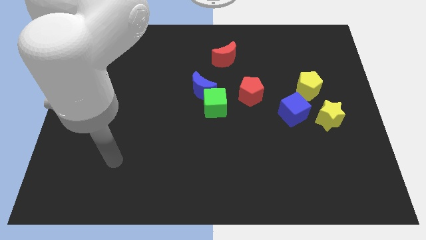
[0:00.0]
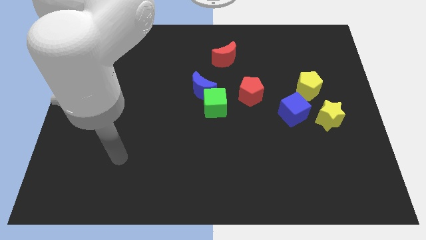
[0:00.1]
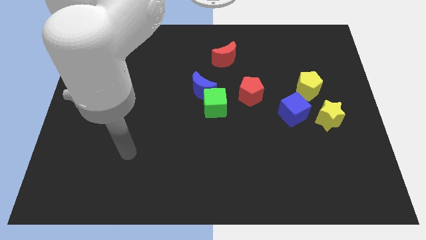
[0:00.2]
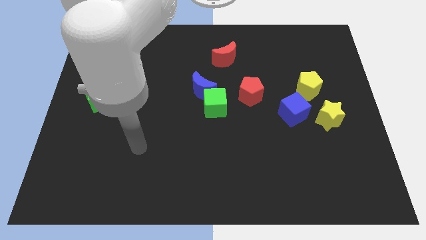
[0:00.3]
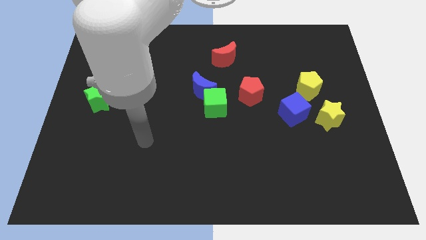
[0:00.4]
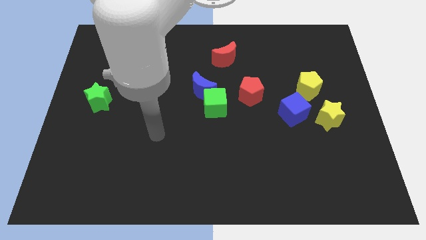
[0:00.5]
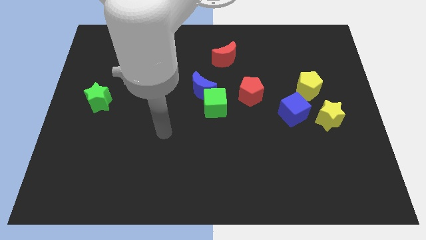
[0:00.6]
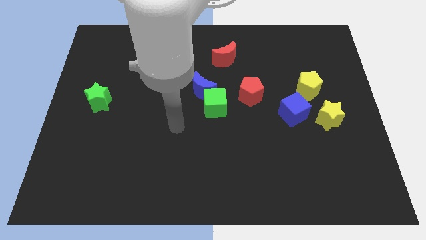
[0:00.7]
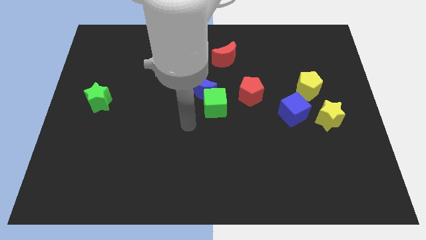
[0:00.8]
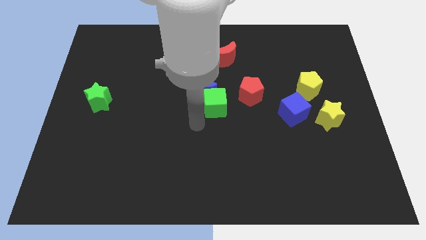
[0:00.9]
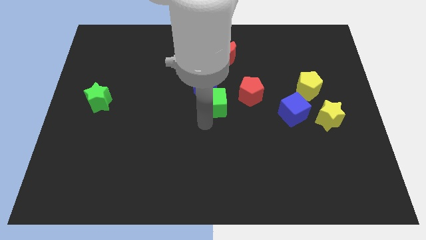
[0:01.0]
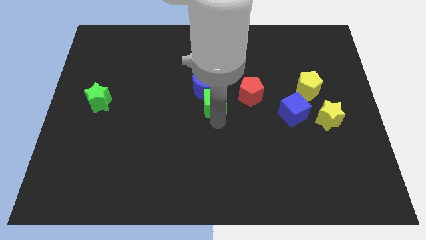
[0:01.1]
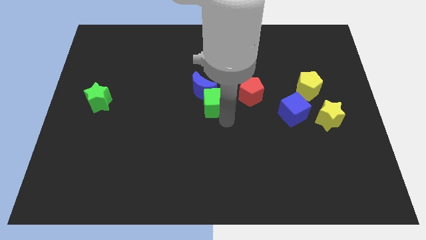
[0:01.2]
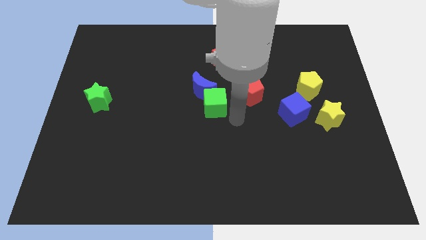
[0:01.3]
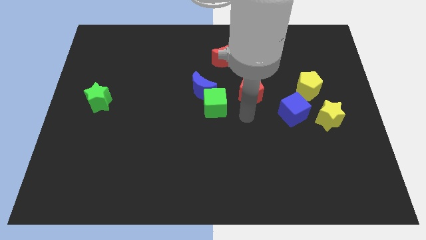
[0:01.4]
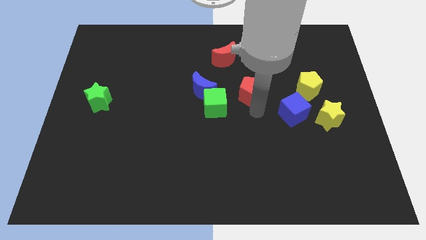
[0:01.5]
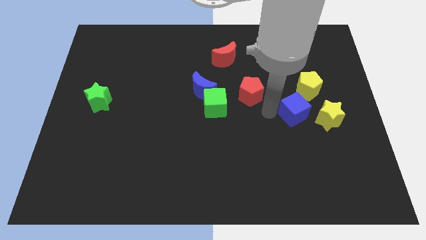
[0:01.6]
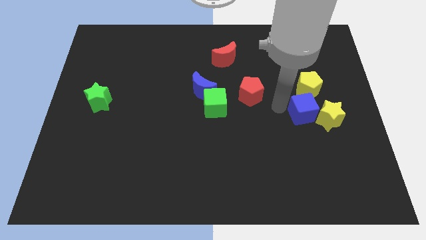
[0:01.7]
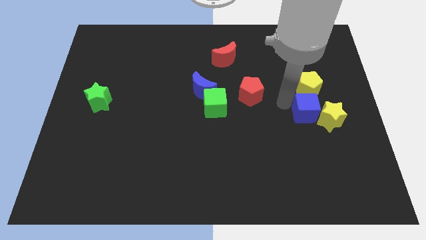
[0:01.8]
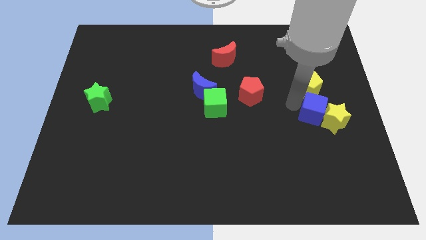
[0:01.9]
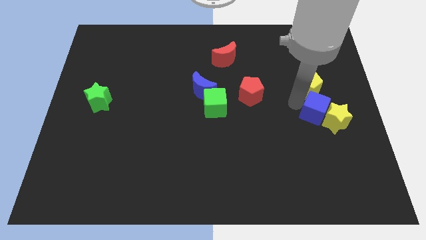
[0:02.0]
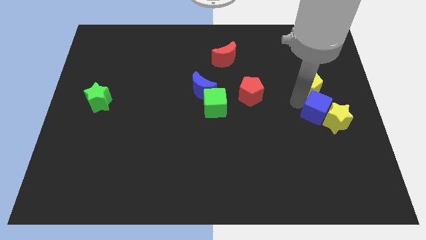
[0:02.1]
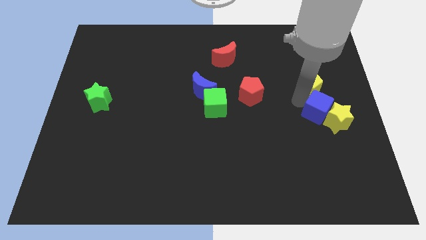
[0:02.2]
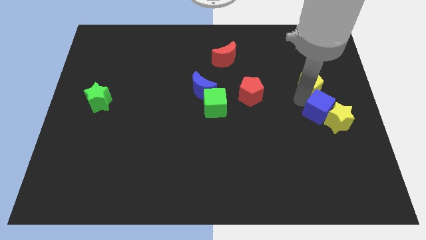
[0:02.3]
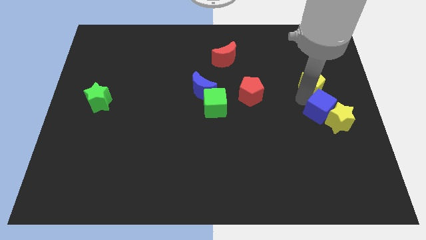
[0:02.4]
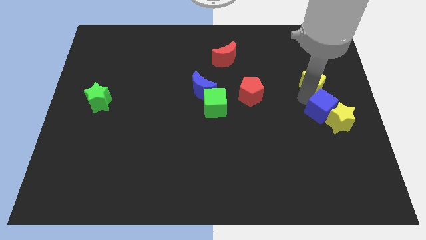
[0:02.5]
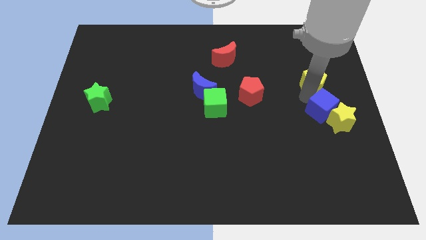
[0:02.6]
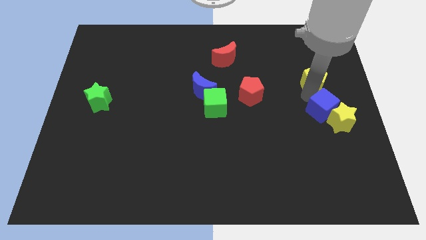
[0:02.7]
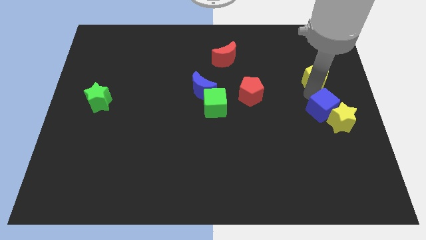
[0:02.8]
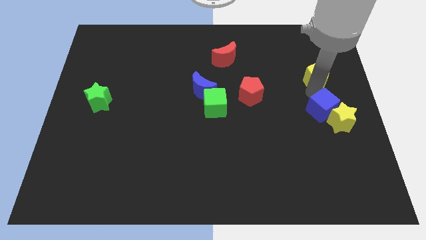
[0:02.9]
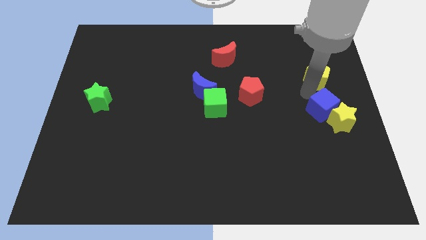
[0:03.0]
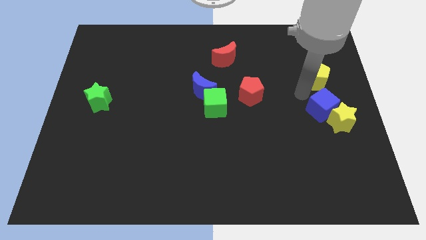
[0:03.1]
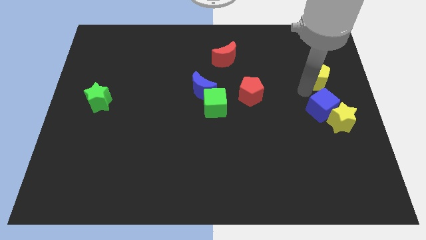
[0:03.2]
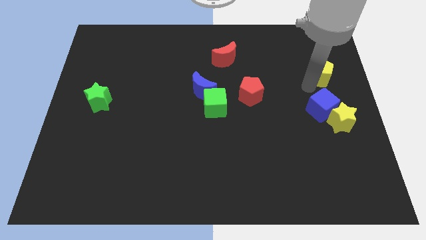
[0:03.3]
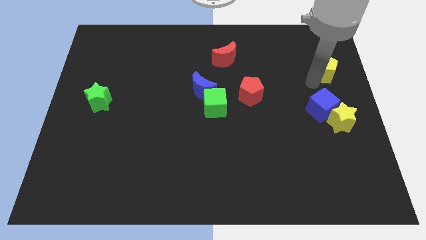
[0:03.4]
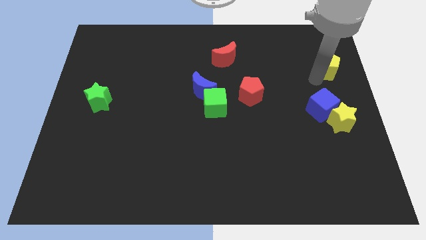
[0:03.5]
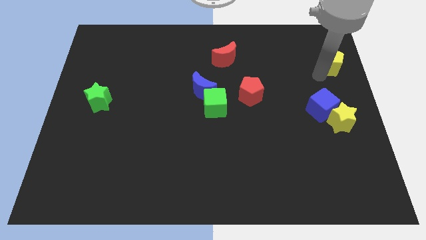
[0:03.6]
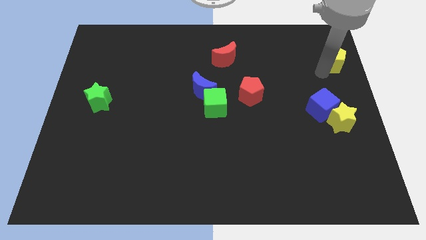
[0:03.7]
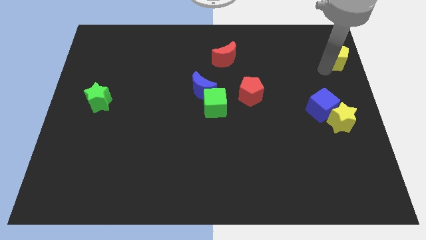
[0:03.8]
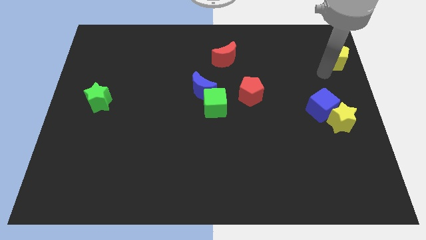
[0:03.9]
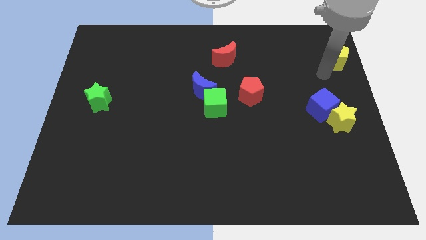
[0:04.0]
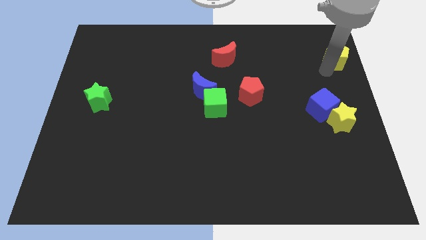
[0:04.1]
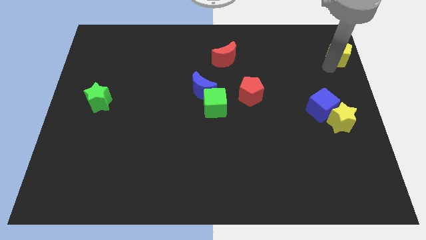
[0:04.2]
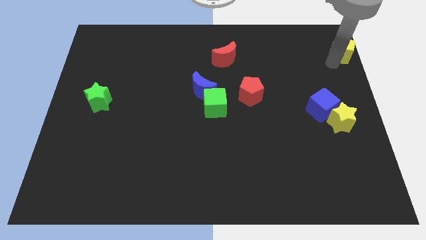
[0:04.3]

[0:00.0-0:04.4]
move the yellow pentagon to the top right corner

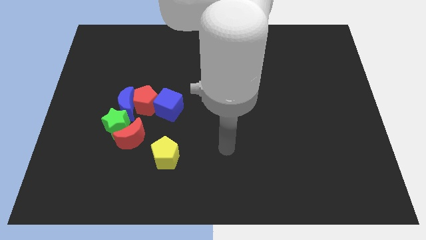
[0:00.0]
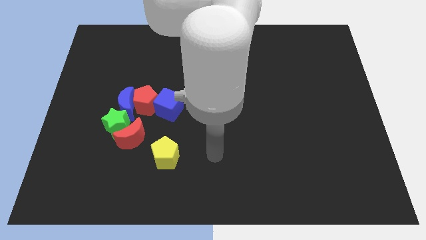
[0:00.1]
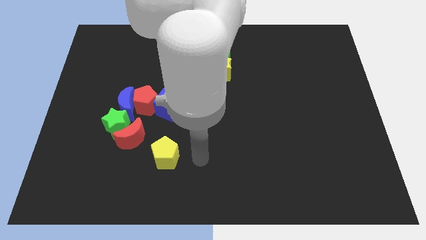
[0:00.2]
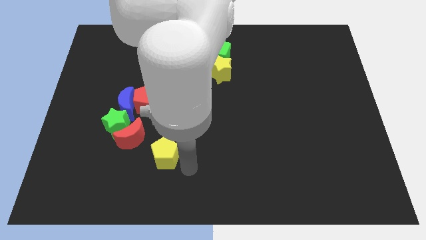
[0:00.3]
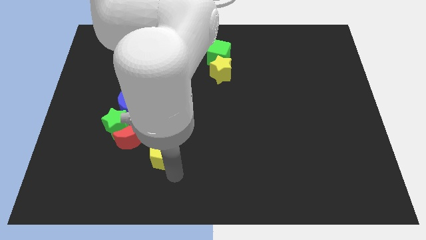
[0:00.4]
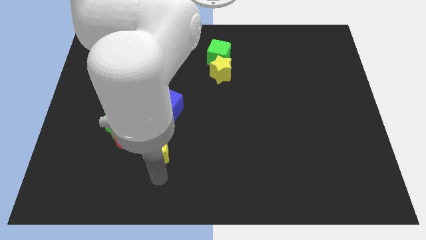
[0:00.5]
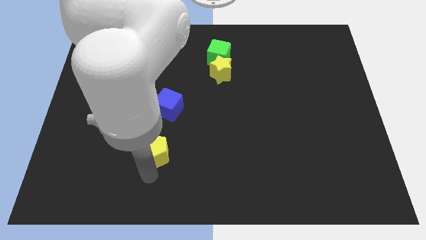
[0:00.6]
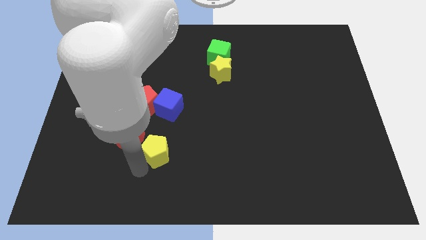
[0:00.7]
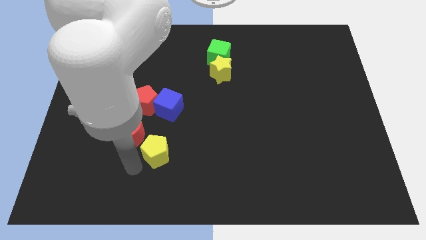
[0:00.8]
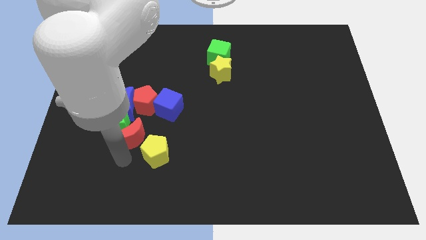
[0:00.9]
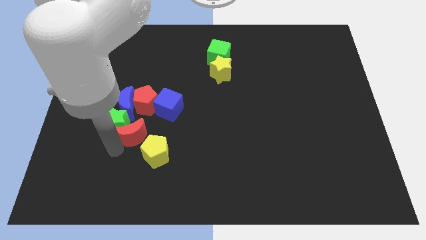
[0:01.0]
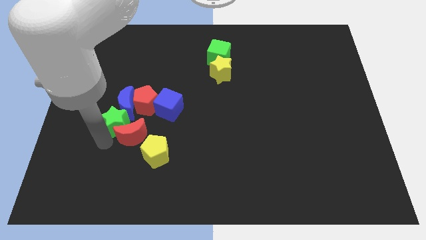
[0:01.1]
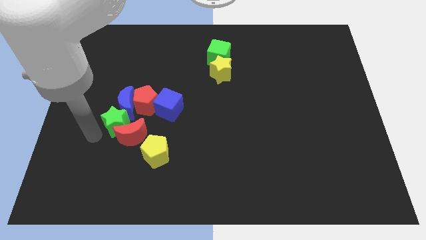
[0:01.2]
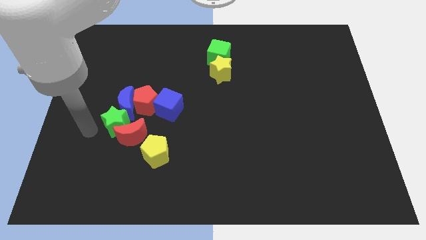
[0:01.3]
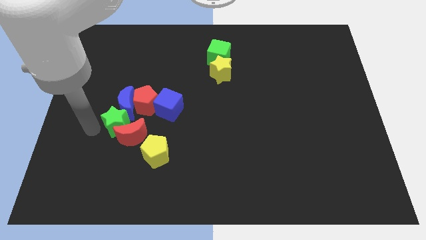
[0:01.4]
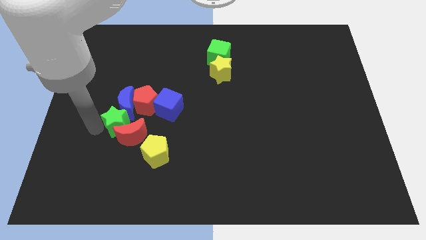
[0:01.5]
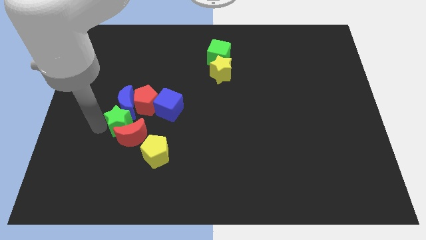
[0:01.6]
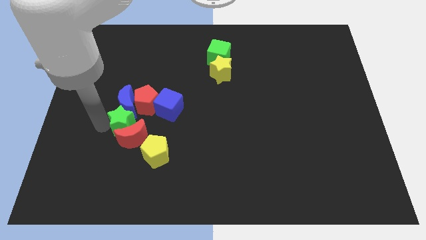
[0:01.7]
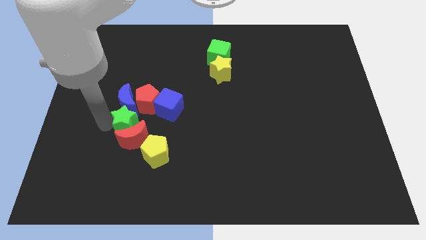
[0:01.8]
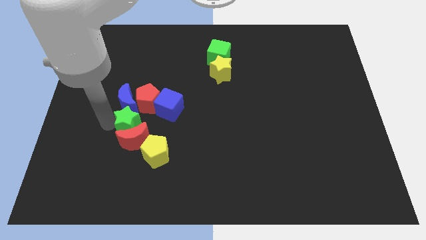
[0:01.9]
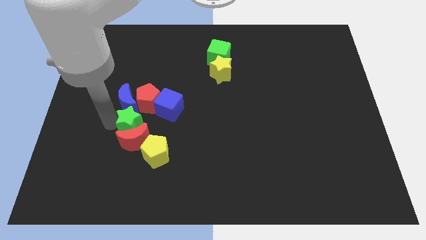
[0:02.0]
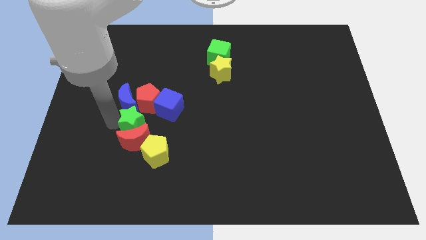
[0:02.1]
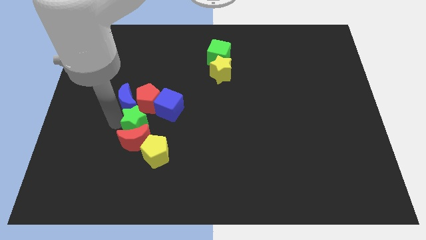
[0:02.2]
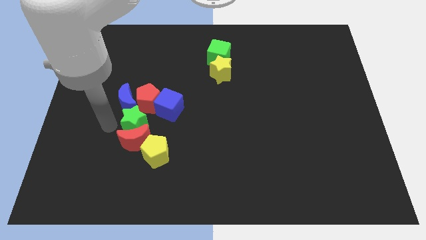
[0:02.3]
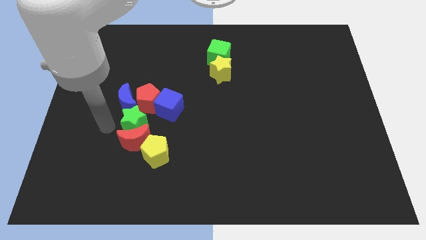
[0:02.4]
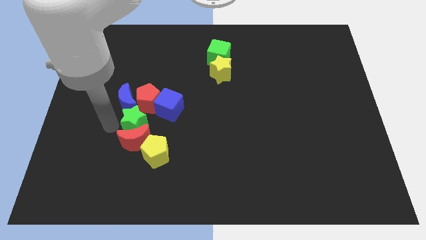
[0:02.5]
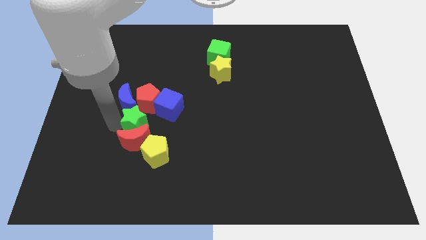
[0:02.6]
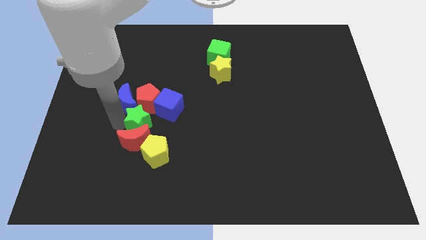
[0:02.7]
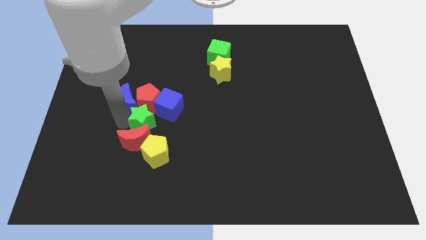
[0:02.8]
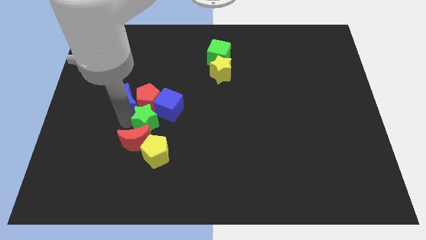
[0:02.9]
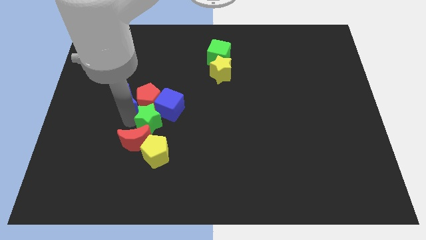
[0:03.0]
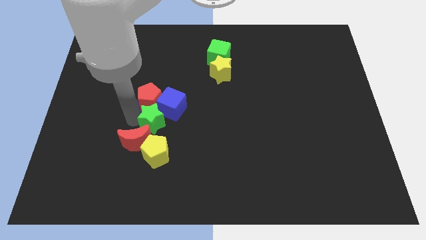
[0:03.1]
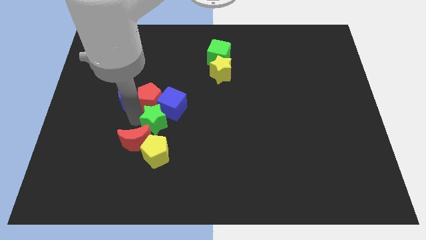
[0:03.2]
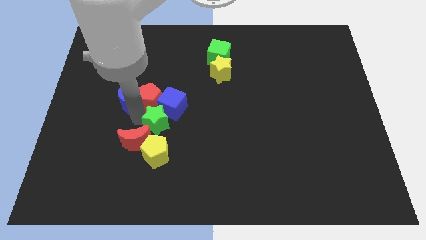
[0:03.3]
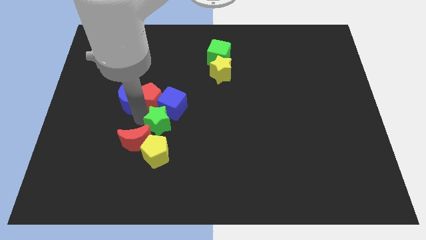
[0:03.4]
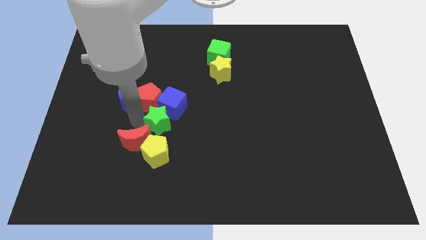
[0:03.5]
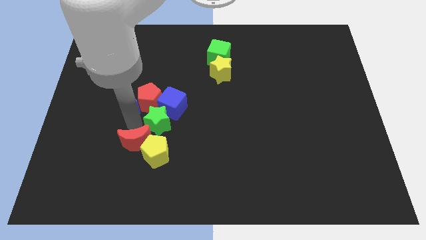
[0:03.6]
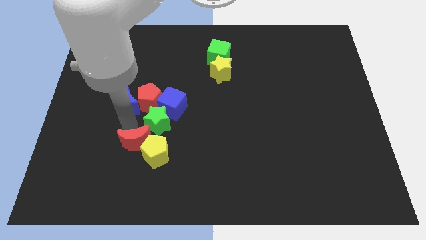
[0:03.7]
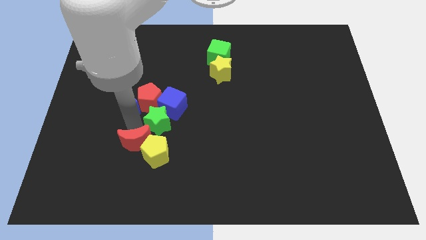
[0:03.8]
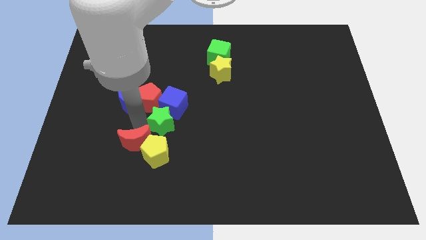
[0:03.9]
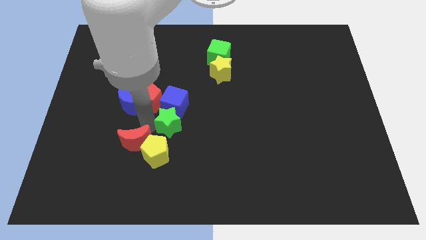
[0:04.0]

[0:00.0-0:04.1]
move the green star to the center of the board
